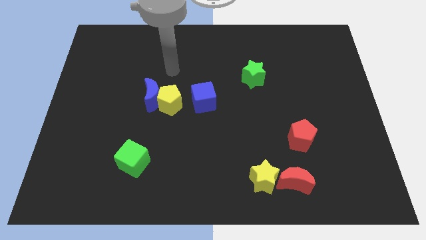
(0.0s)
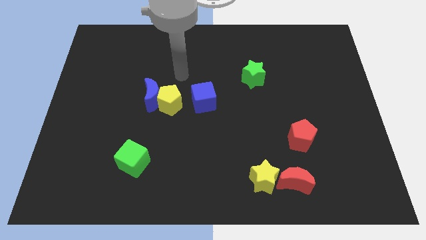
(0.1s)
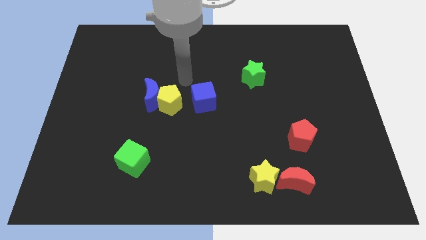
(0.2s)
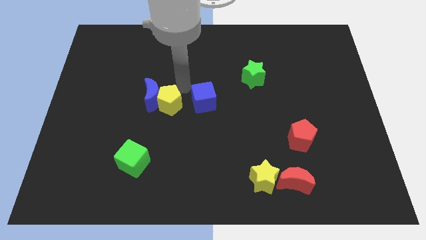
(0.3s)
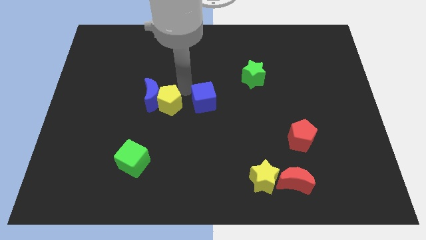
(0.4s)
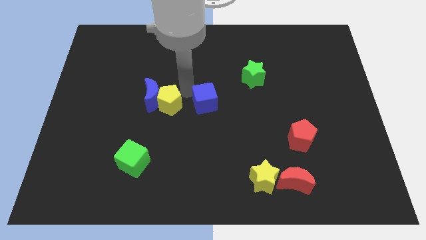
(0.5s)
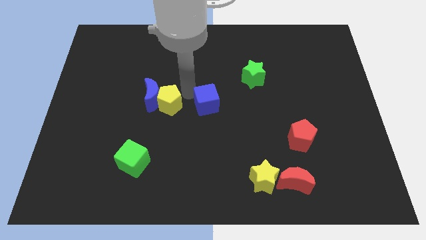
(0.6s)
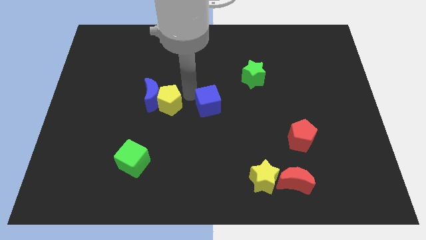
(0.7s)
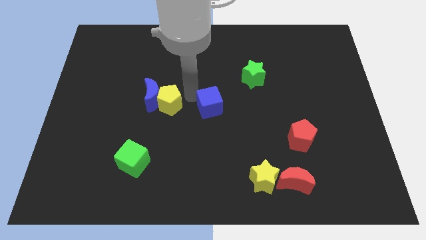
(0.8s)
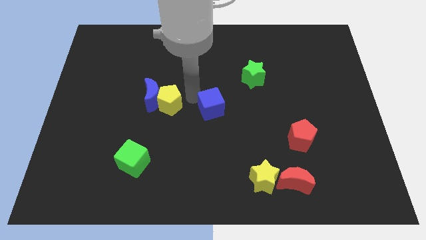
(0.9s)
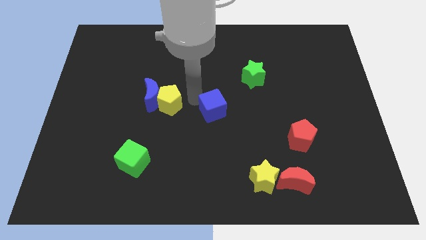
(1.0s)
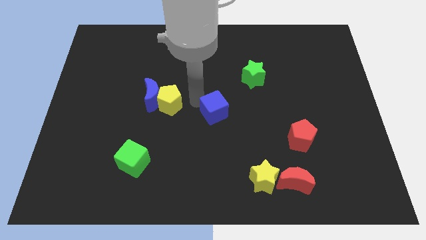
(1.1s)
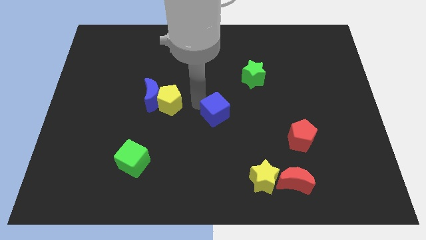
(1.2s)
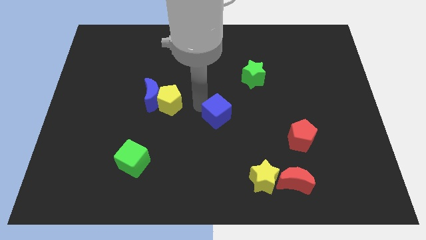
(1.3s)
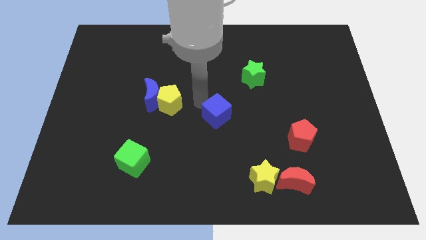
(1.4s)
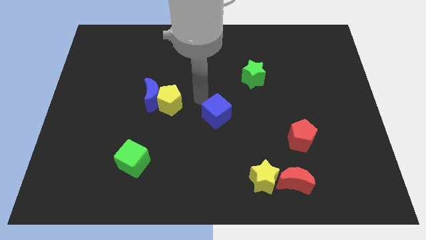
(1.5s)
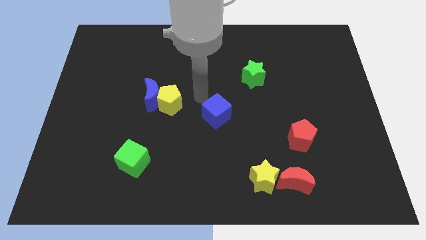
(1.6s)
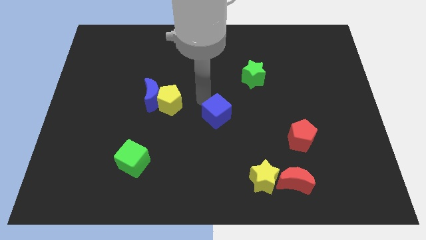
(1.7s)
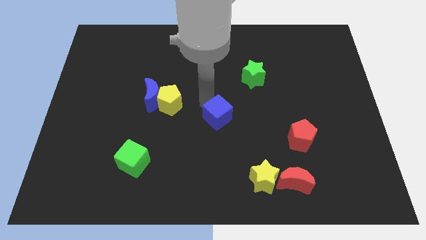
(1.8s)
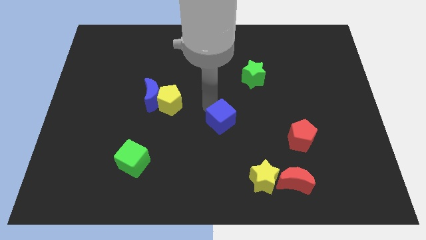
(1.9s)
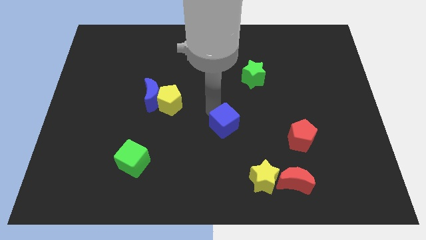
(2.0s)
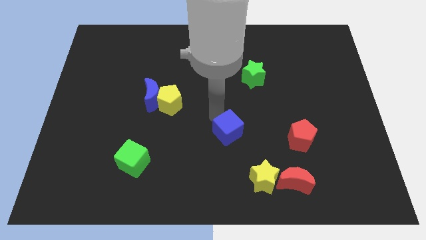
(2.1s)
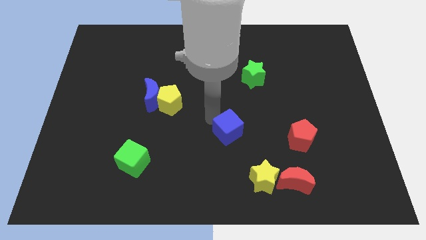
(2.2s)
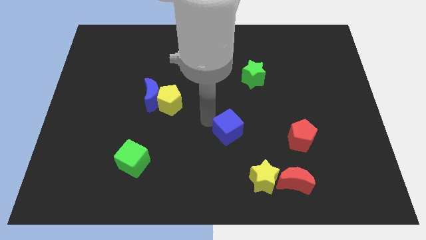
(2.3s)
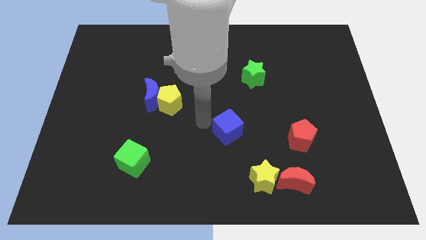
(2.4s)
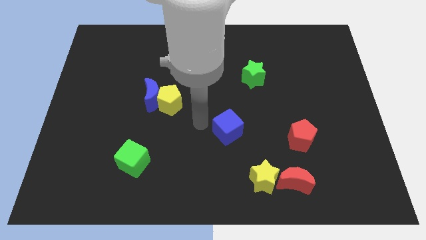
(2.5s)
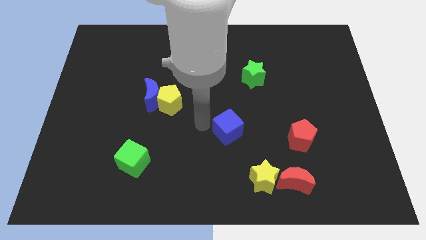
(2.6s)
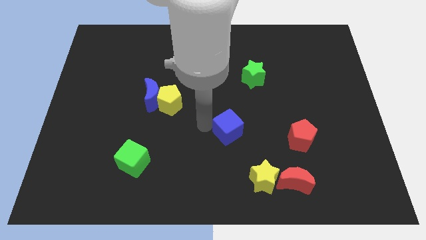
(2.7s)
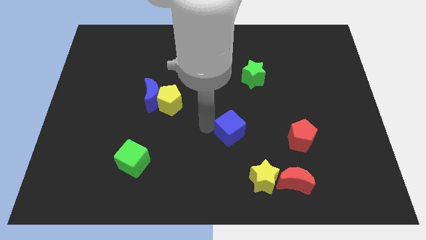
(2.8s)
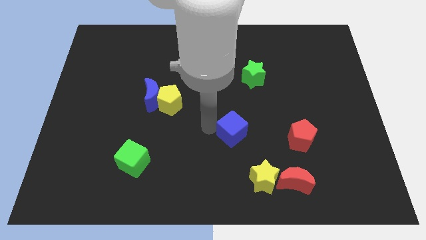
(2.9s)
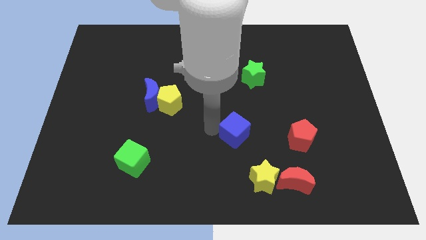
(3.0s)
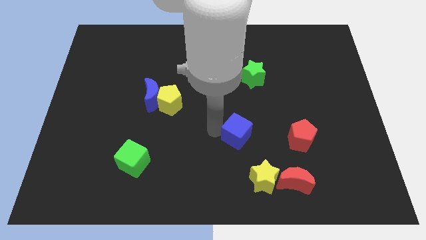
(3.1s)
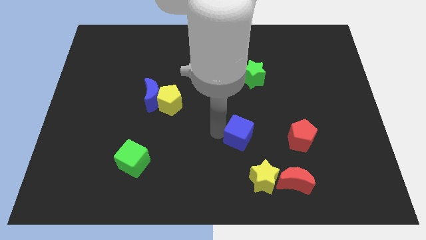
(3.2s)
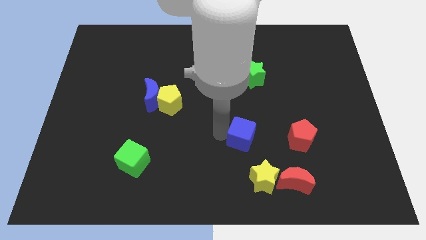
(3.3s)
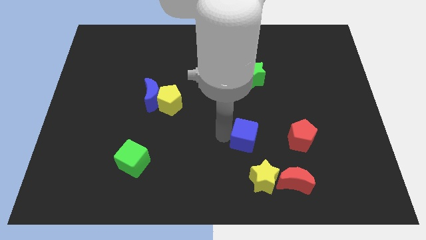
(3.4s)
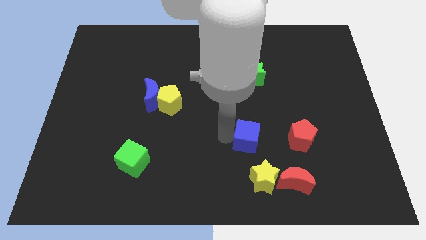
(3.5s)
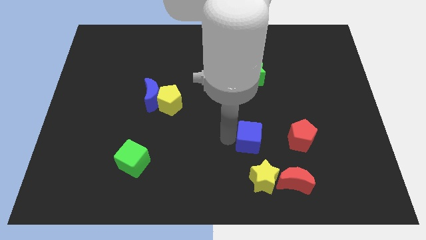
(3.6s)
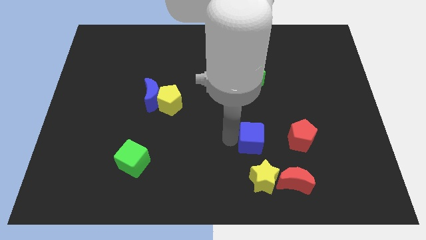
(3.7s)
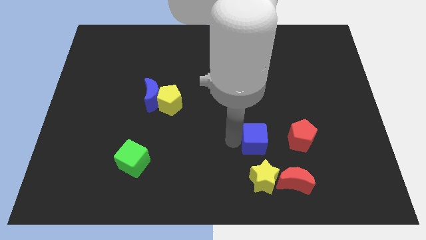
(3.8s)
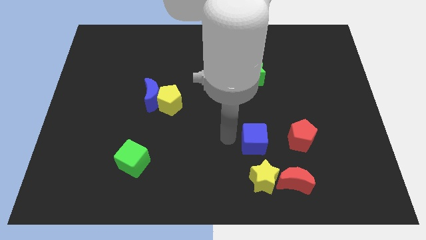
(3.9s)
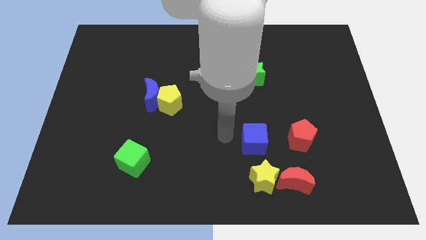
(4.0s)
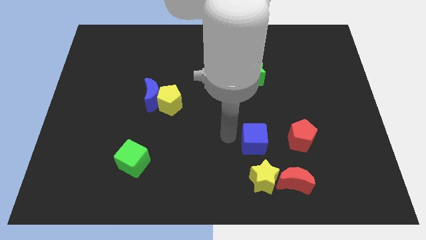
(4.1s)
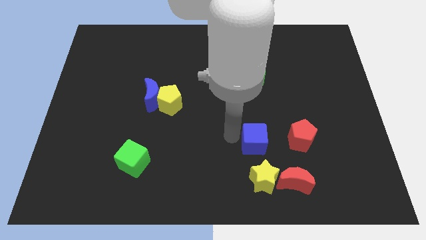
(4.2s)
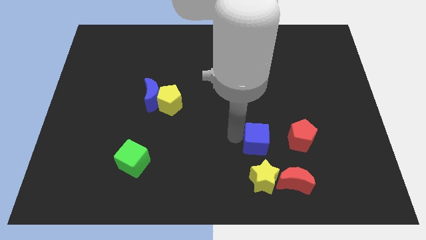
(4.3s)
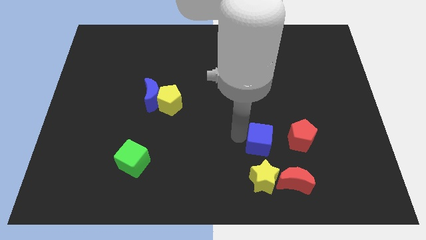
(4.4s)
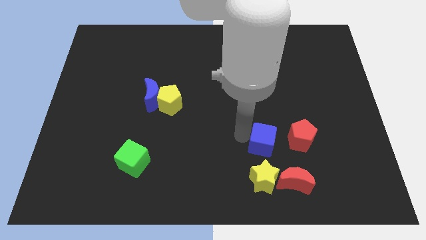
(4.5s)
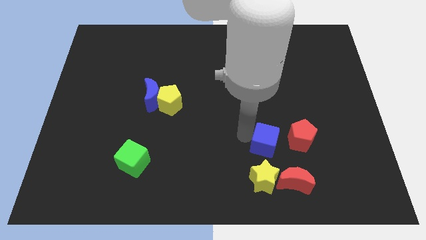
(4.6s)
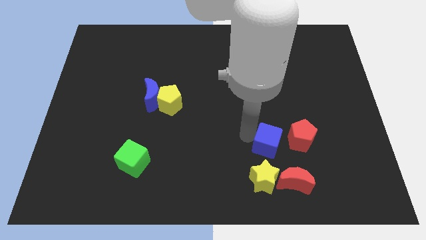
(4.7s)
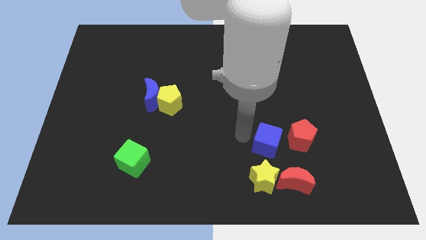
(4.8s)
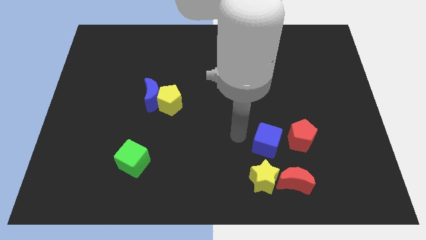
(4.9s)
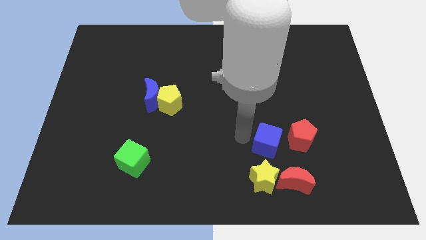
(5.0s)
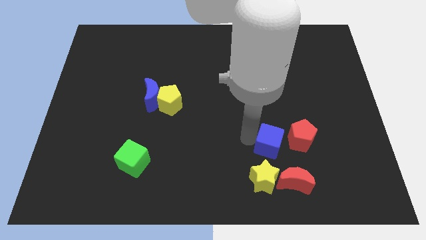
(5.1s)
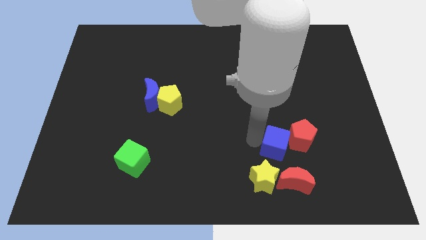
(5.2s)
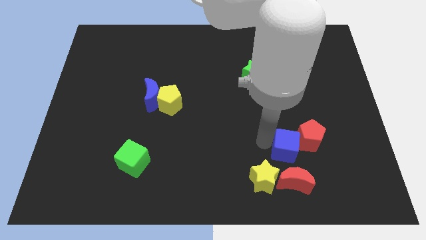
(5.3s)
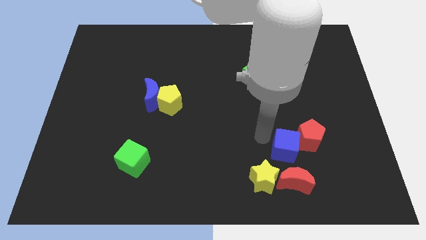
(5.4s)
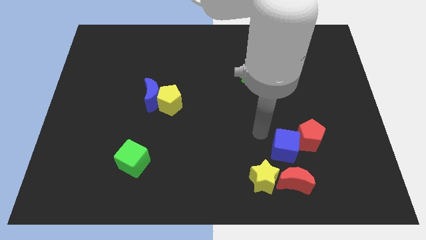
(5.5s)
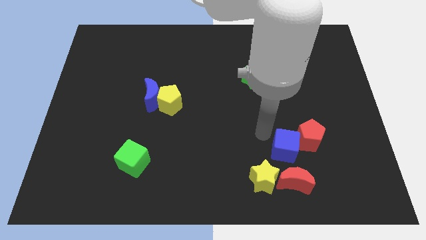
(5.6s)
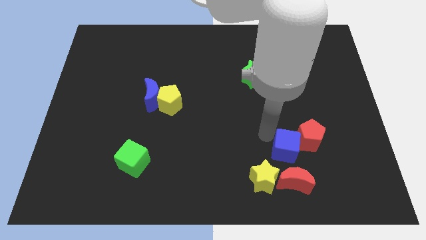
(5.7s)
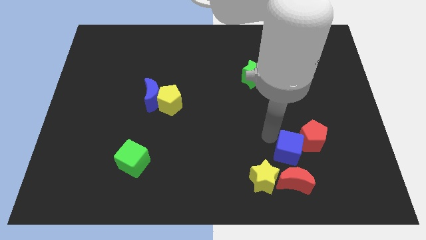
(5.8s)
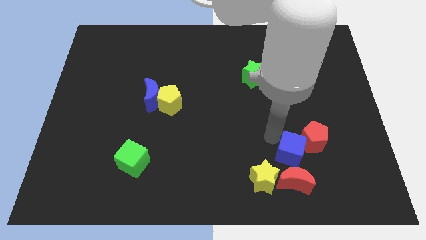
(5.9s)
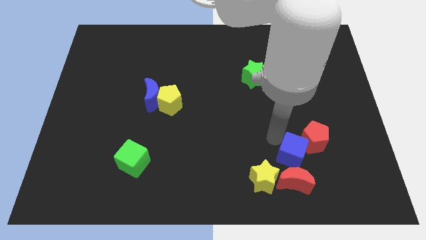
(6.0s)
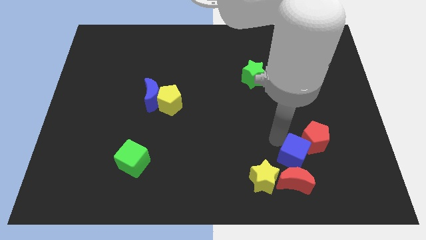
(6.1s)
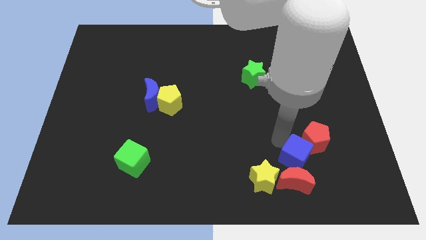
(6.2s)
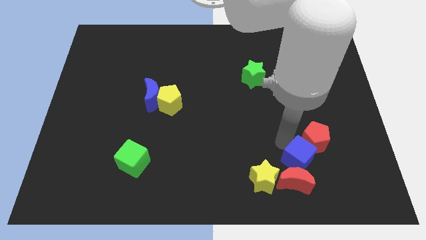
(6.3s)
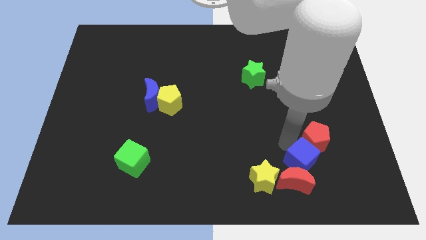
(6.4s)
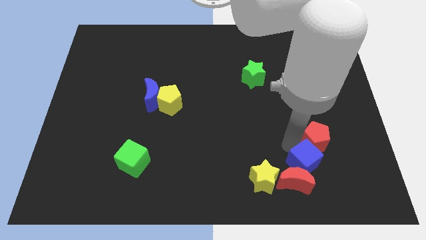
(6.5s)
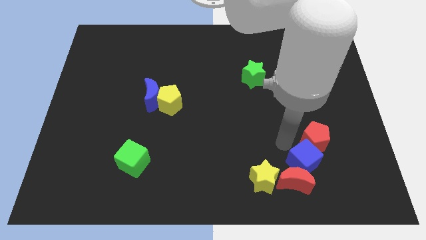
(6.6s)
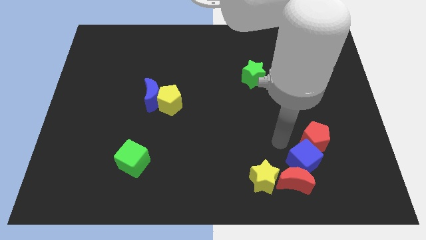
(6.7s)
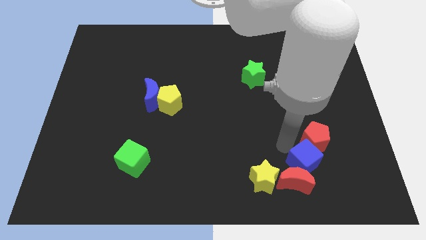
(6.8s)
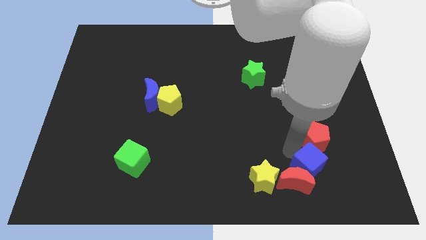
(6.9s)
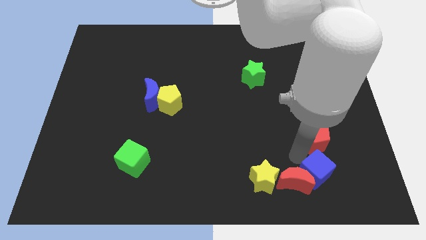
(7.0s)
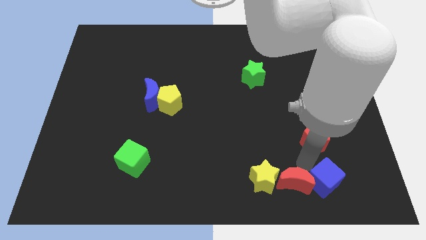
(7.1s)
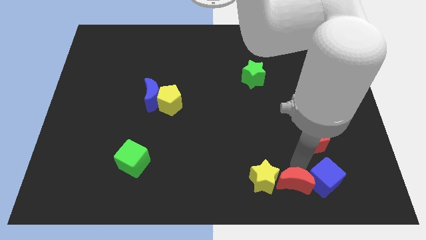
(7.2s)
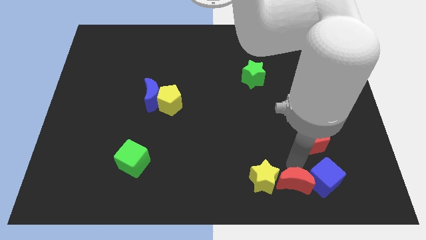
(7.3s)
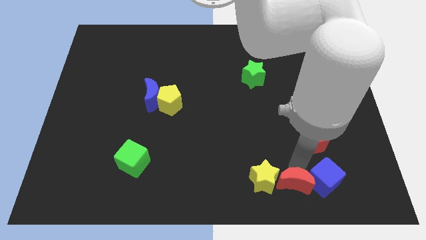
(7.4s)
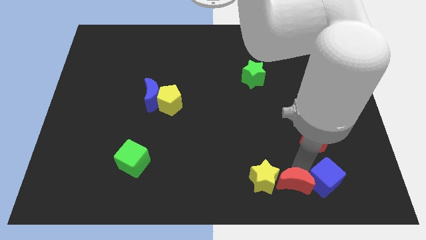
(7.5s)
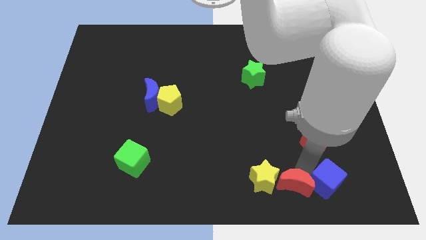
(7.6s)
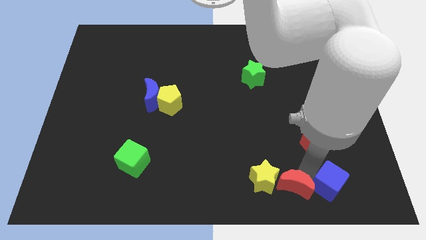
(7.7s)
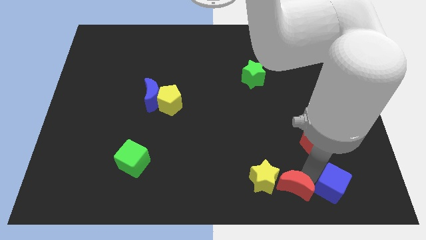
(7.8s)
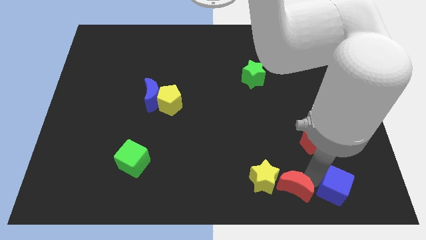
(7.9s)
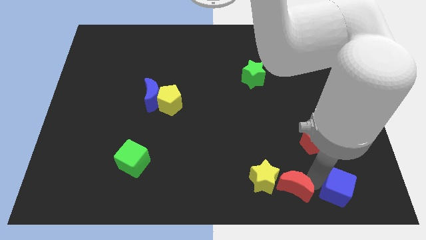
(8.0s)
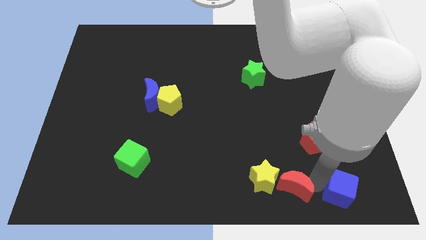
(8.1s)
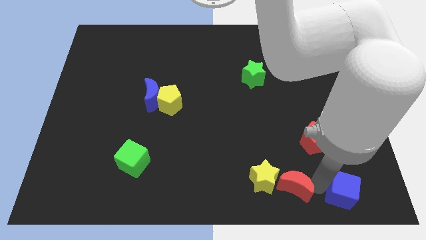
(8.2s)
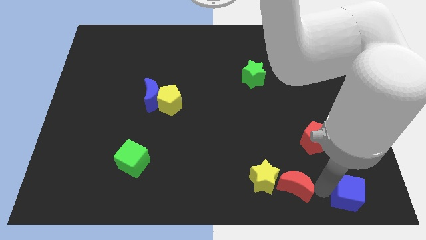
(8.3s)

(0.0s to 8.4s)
move the blue cube to the bottom right corner
